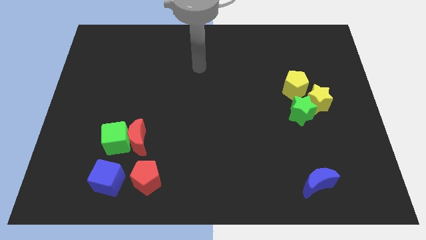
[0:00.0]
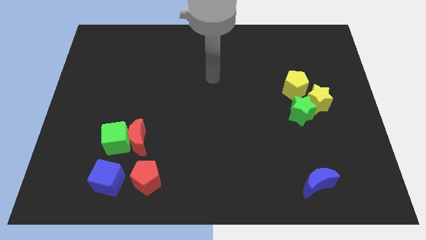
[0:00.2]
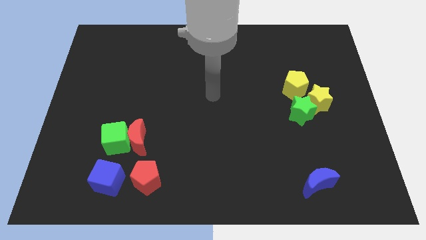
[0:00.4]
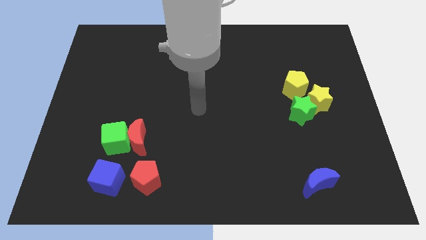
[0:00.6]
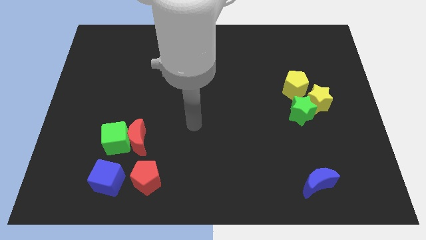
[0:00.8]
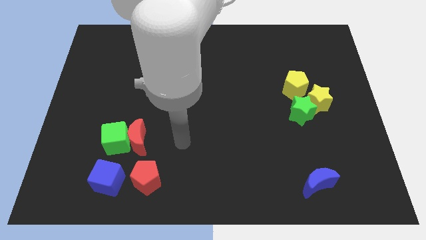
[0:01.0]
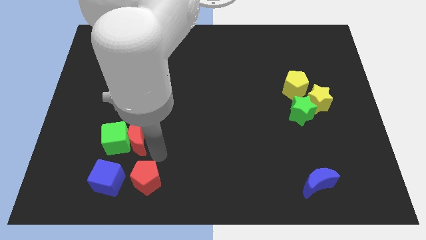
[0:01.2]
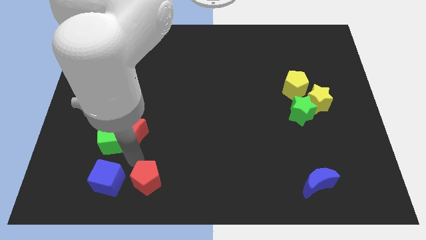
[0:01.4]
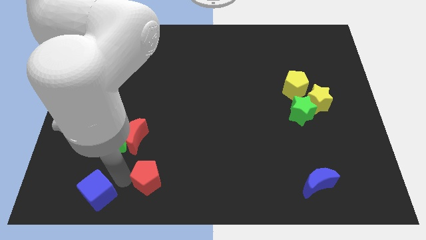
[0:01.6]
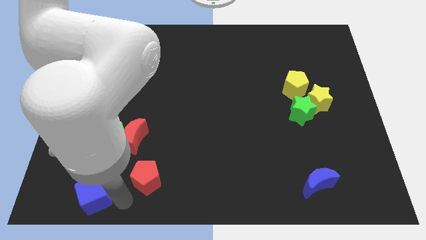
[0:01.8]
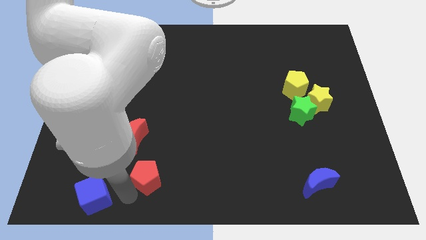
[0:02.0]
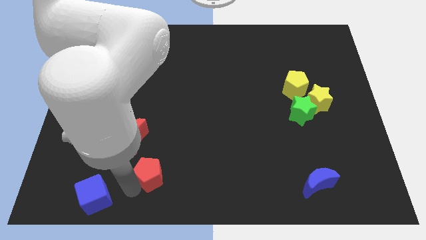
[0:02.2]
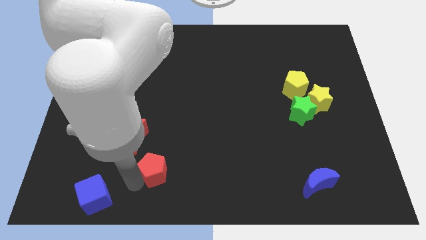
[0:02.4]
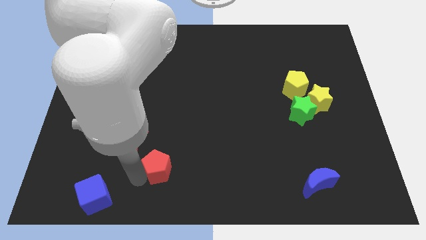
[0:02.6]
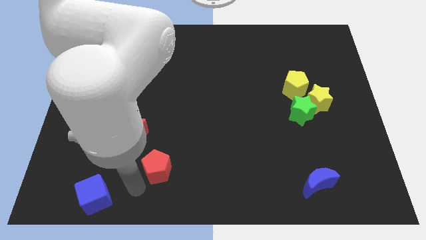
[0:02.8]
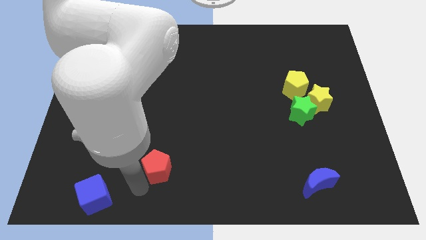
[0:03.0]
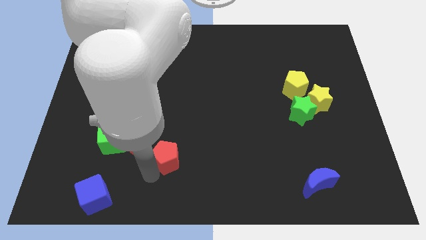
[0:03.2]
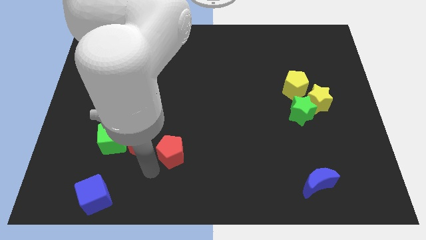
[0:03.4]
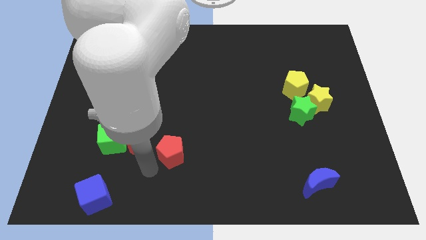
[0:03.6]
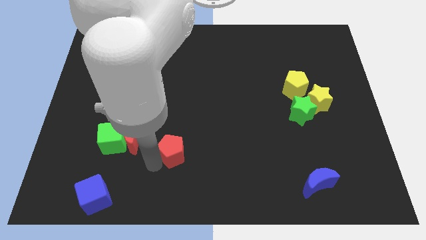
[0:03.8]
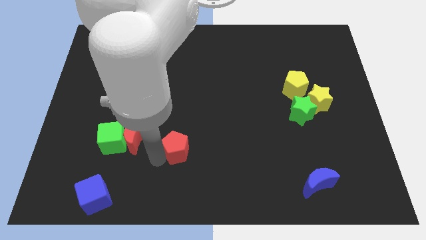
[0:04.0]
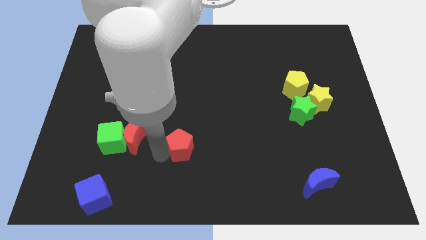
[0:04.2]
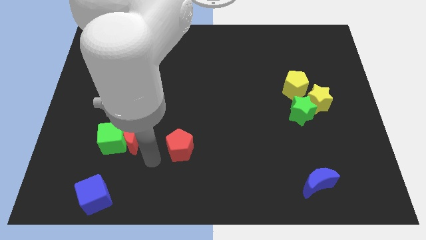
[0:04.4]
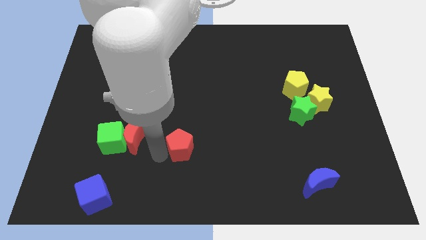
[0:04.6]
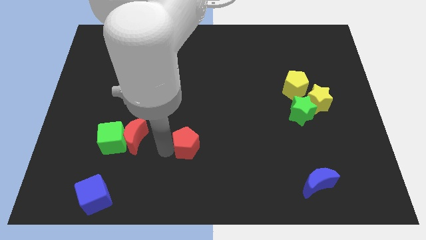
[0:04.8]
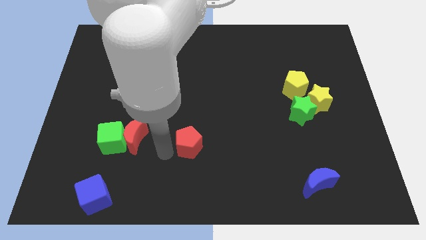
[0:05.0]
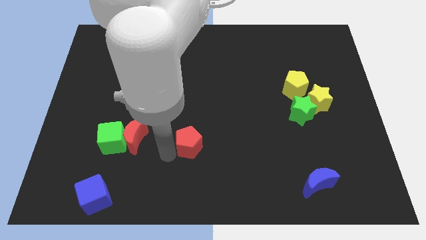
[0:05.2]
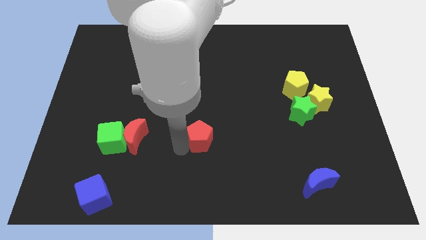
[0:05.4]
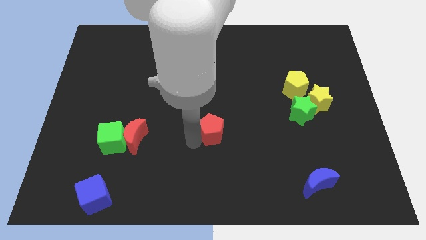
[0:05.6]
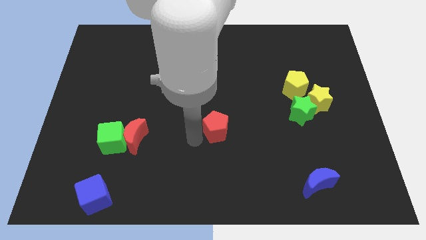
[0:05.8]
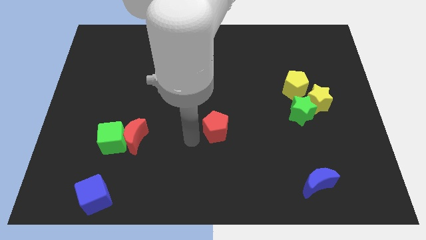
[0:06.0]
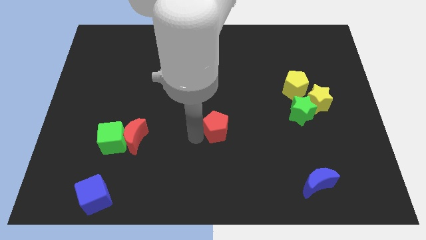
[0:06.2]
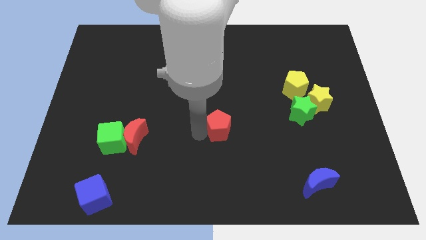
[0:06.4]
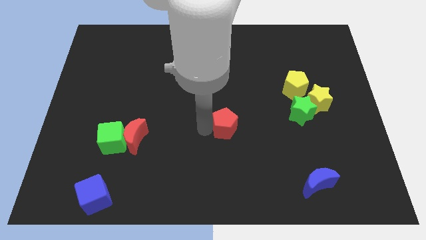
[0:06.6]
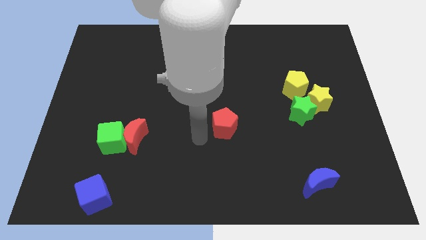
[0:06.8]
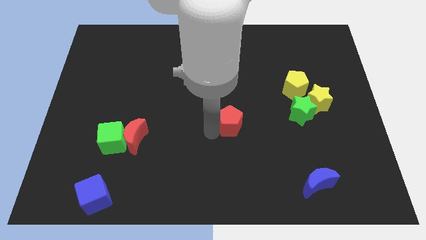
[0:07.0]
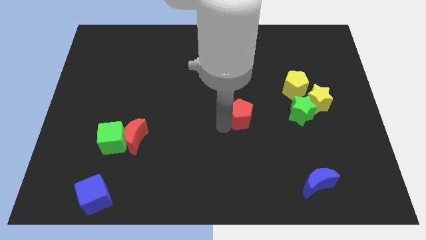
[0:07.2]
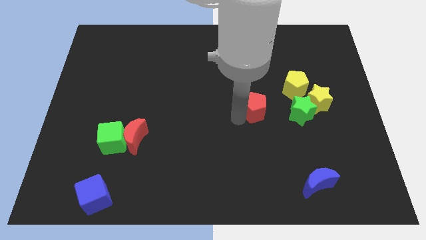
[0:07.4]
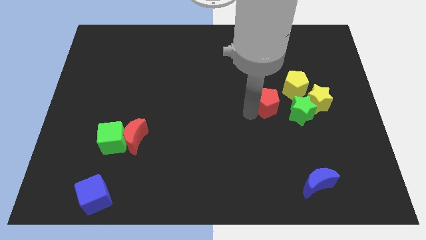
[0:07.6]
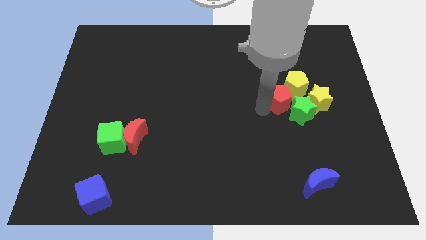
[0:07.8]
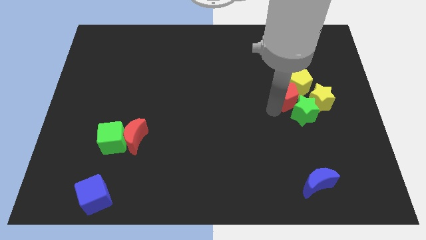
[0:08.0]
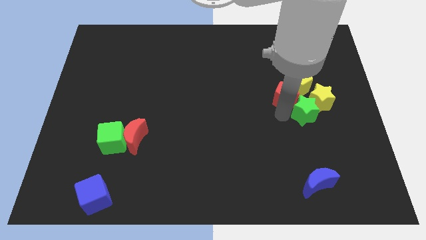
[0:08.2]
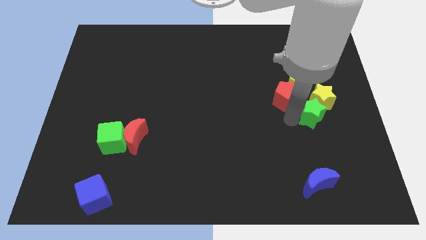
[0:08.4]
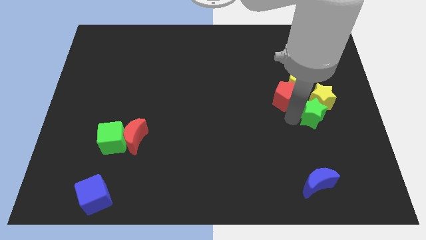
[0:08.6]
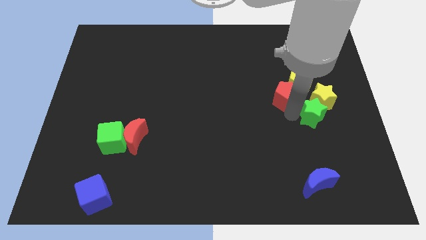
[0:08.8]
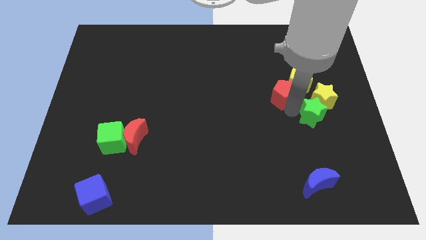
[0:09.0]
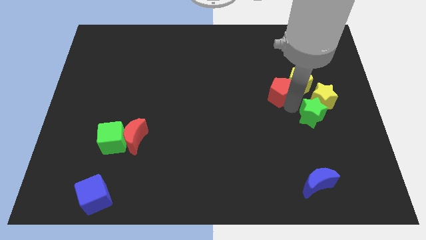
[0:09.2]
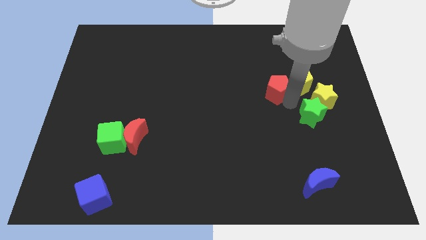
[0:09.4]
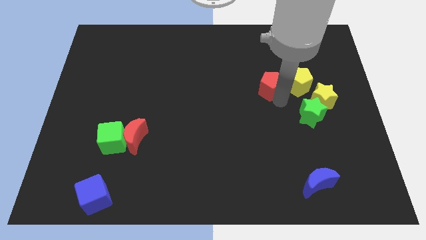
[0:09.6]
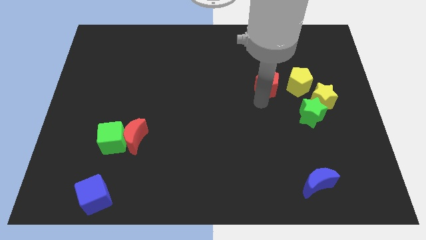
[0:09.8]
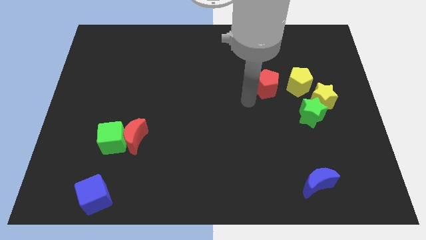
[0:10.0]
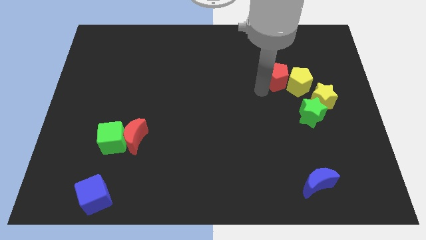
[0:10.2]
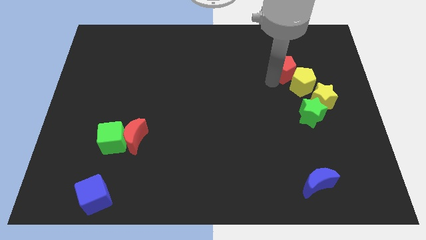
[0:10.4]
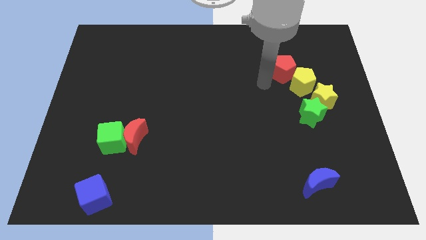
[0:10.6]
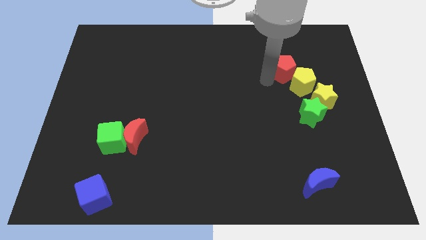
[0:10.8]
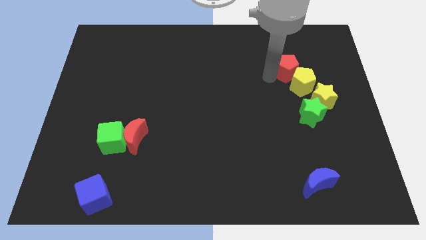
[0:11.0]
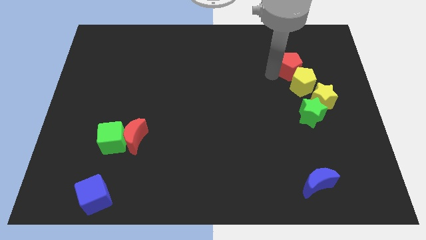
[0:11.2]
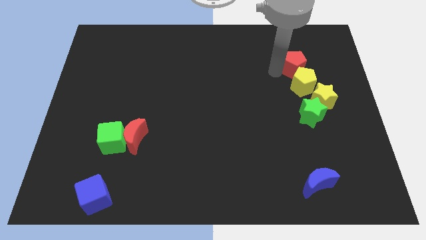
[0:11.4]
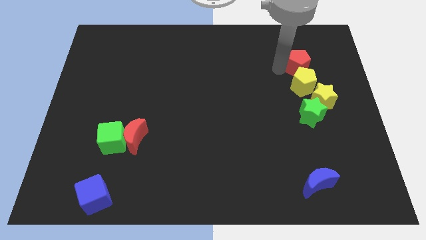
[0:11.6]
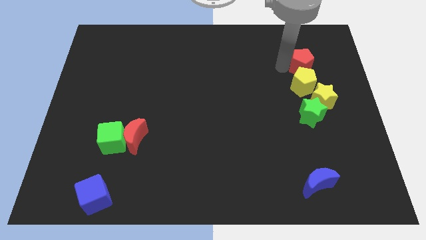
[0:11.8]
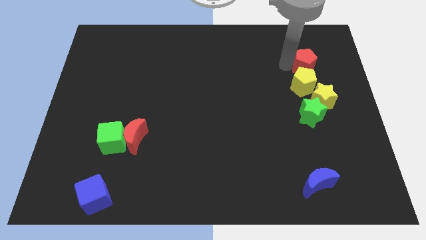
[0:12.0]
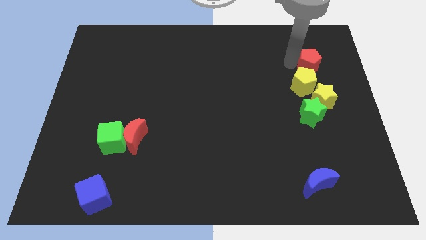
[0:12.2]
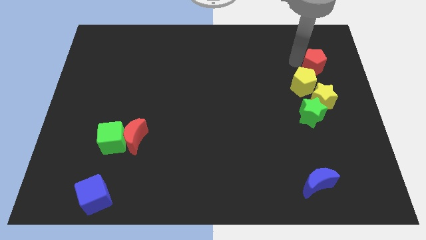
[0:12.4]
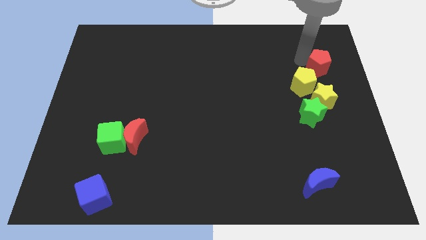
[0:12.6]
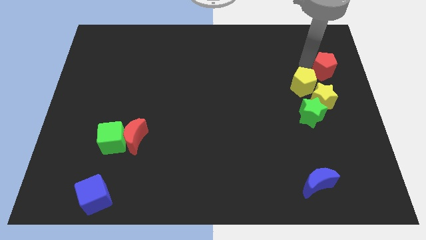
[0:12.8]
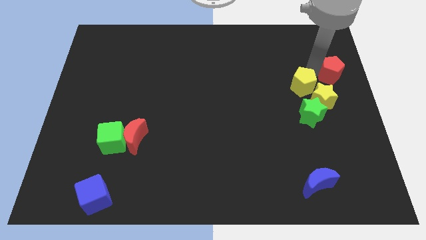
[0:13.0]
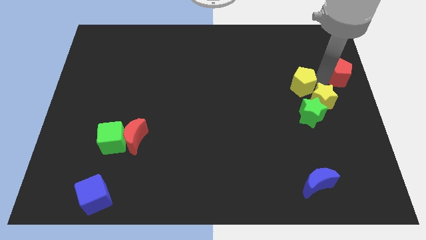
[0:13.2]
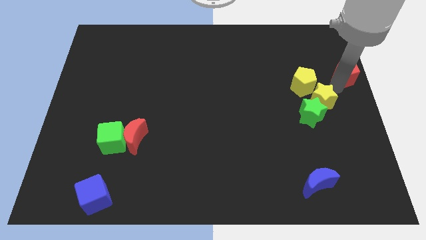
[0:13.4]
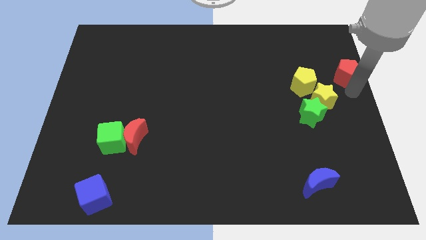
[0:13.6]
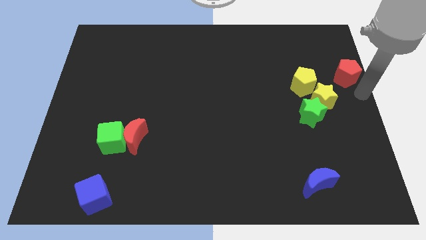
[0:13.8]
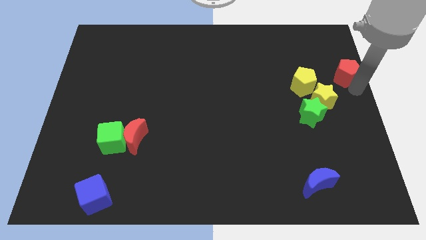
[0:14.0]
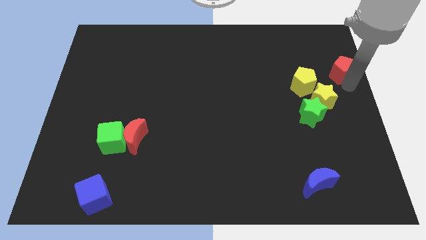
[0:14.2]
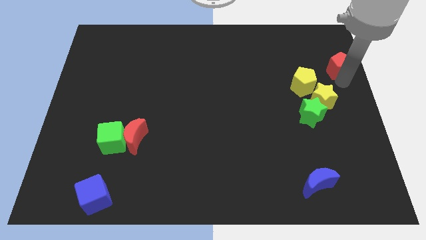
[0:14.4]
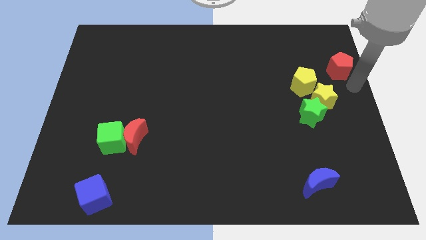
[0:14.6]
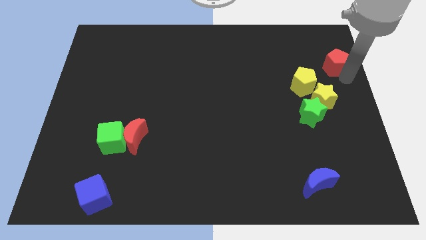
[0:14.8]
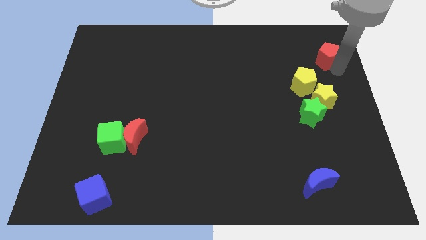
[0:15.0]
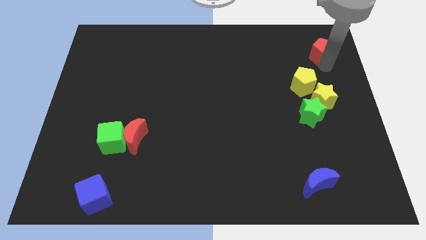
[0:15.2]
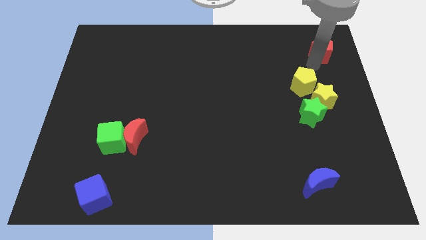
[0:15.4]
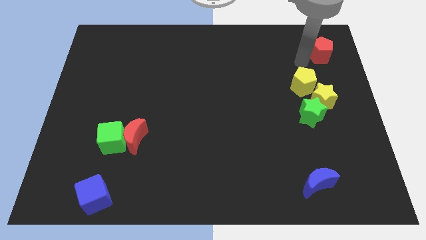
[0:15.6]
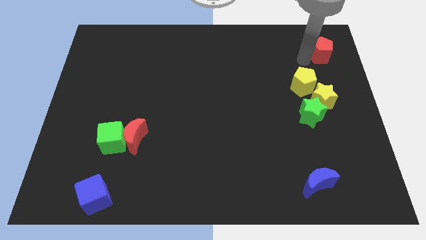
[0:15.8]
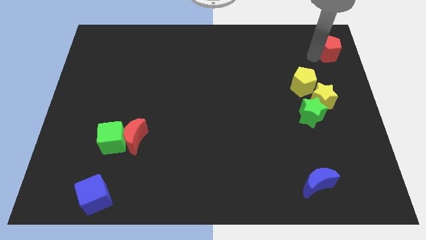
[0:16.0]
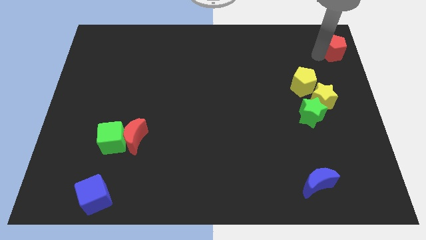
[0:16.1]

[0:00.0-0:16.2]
put the red pentagon to the top right
